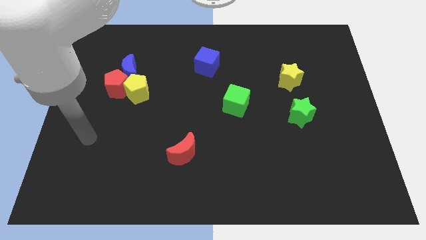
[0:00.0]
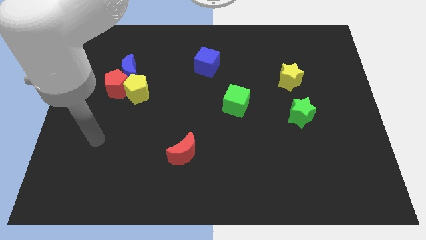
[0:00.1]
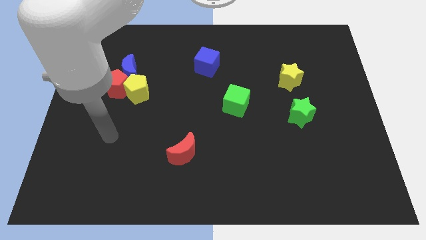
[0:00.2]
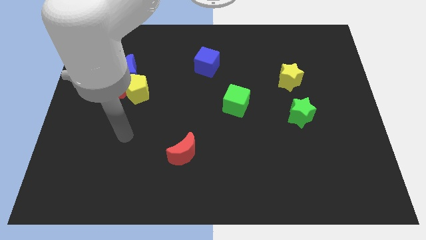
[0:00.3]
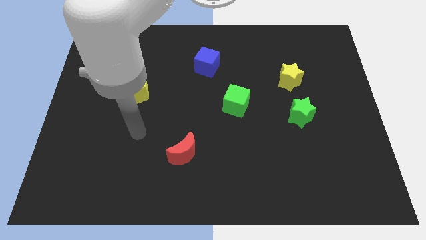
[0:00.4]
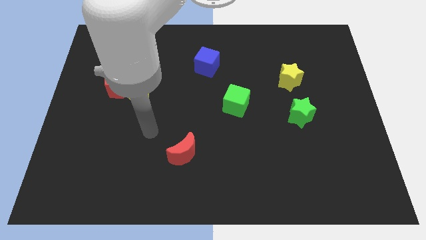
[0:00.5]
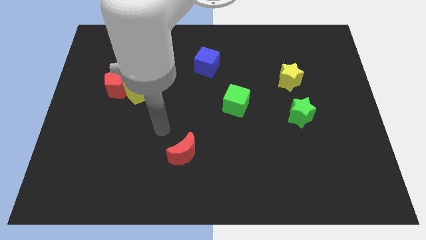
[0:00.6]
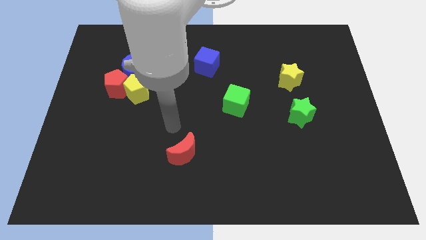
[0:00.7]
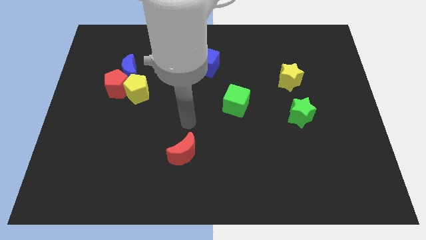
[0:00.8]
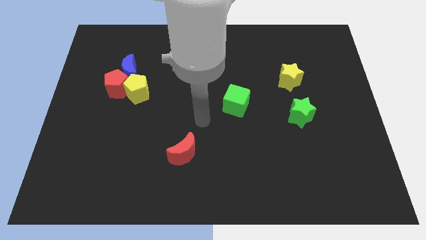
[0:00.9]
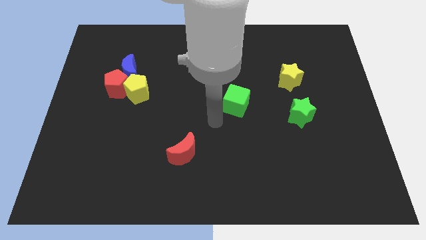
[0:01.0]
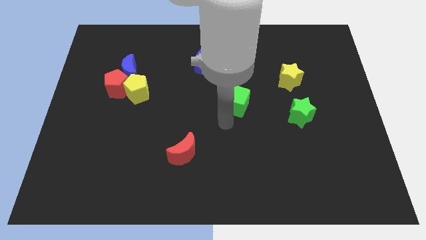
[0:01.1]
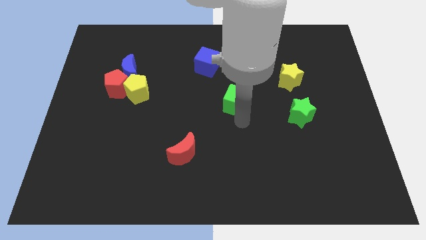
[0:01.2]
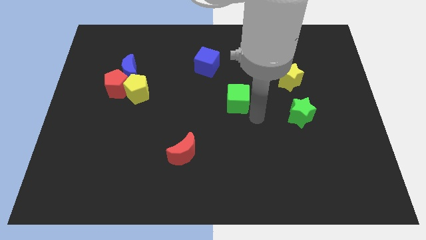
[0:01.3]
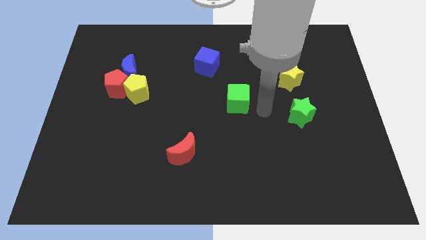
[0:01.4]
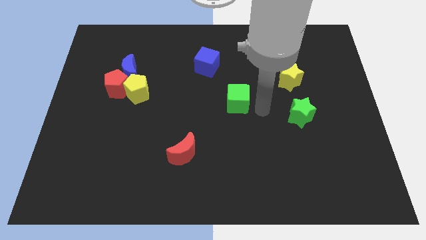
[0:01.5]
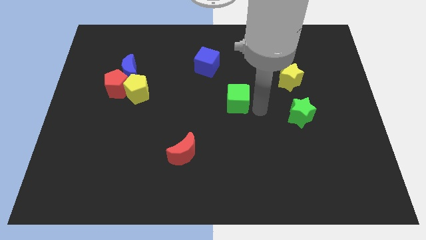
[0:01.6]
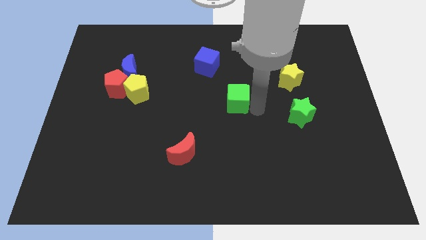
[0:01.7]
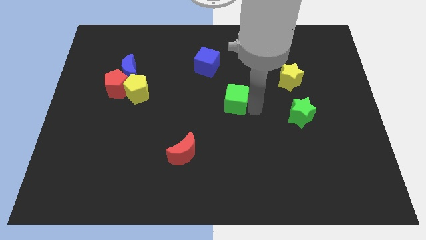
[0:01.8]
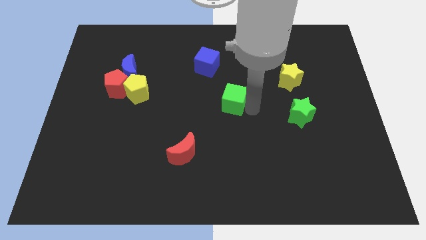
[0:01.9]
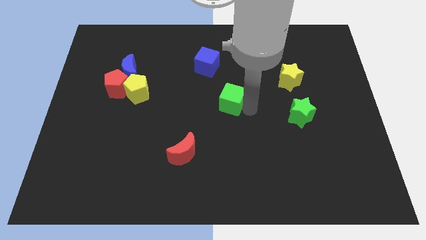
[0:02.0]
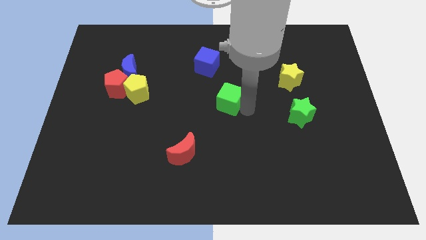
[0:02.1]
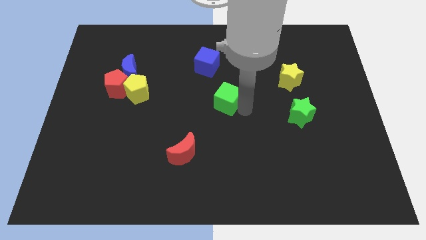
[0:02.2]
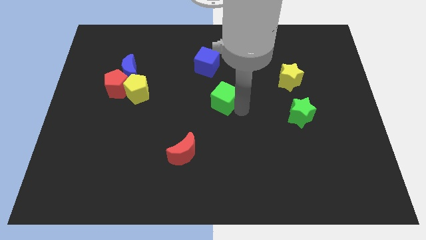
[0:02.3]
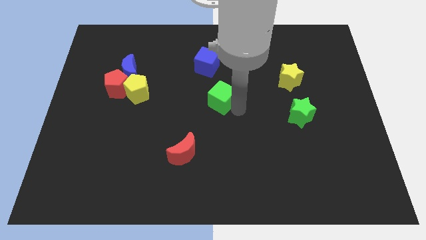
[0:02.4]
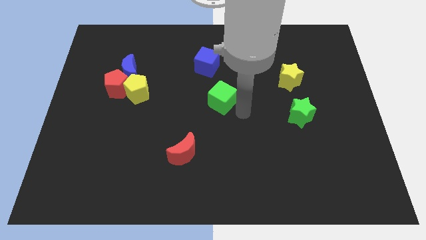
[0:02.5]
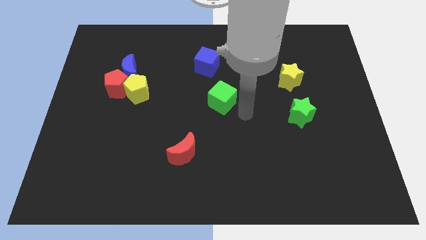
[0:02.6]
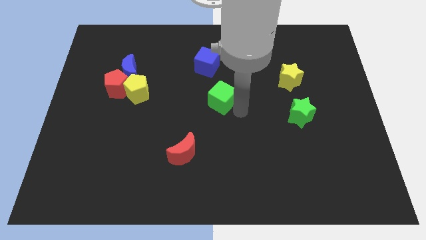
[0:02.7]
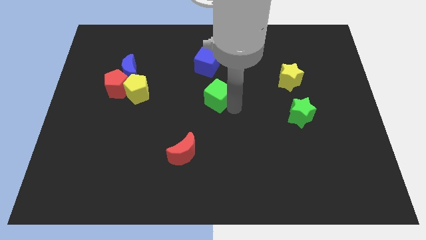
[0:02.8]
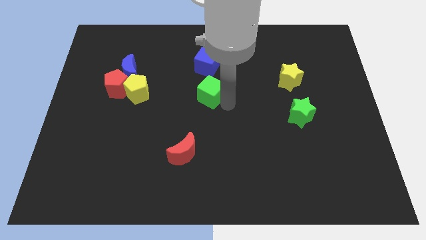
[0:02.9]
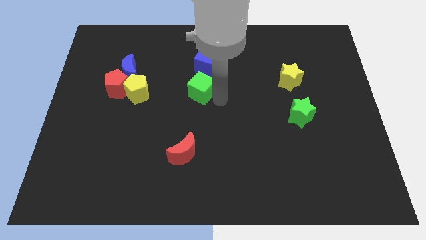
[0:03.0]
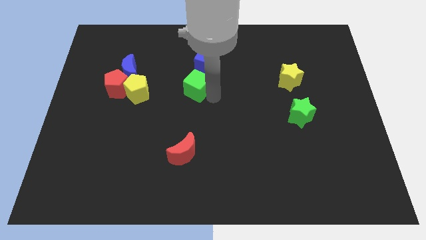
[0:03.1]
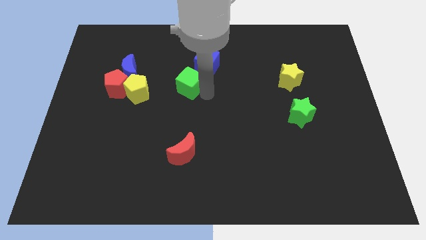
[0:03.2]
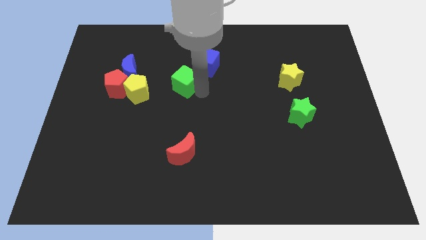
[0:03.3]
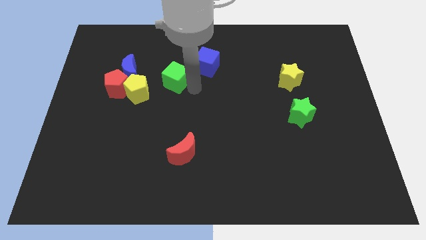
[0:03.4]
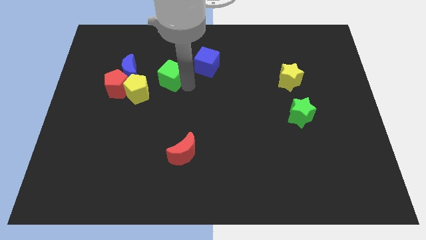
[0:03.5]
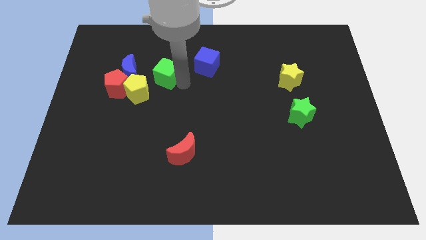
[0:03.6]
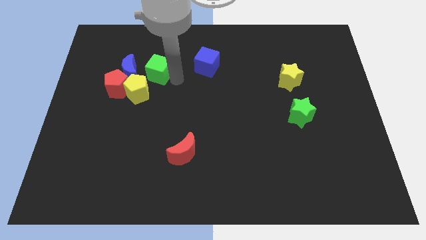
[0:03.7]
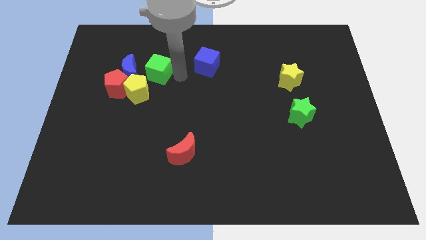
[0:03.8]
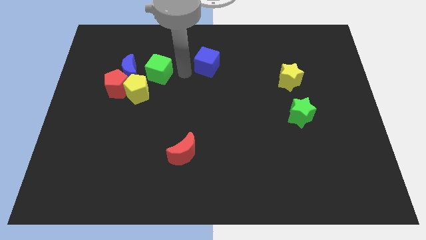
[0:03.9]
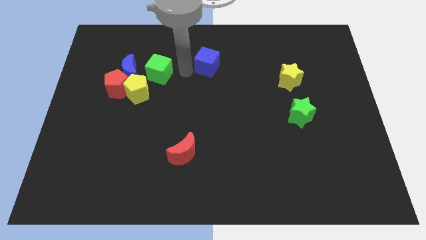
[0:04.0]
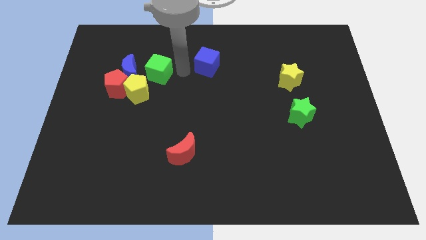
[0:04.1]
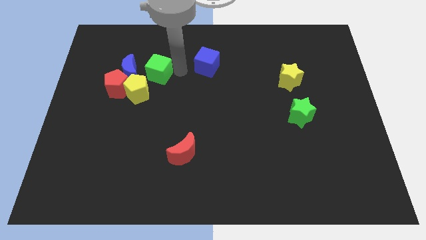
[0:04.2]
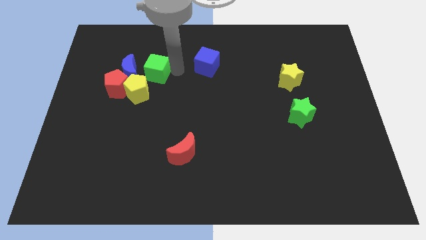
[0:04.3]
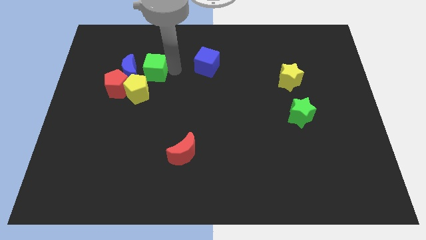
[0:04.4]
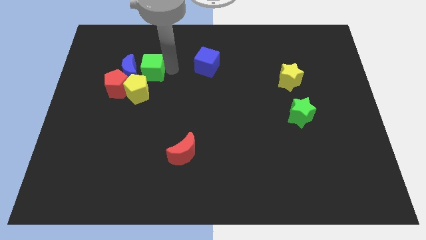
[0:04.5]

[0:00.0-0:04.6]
put the green cube to the blue moon

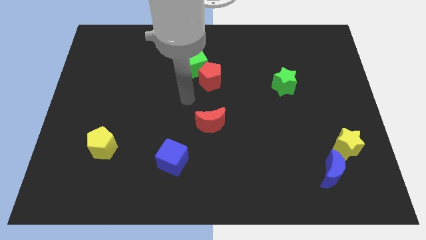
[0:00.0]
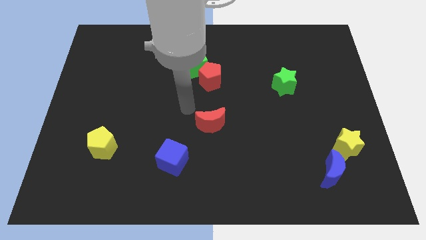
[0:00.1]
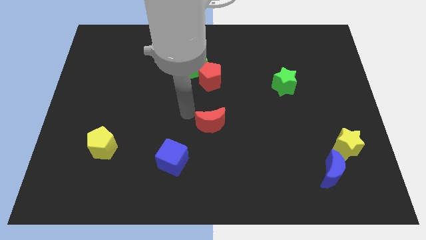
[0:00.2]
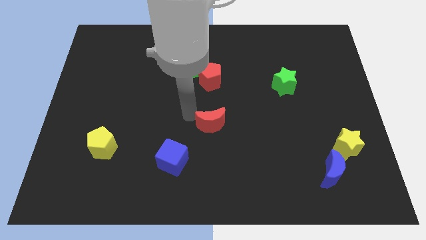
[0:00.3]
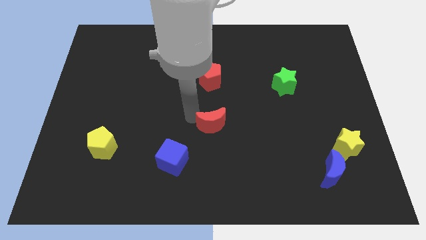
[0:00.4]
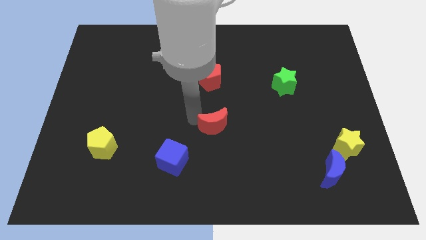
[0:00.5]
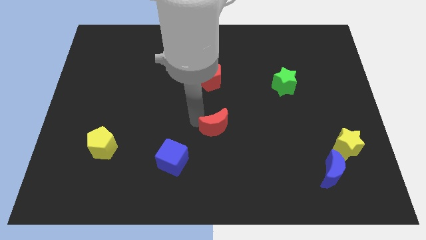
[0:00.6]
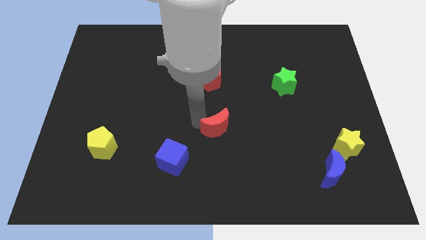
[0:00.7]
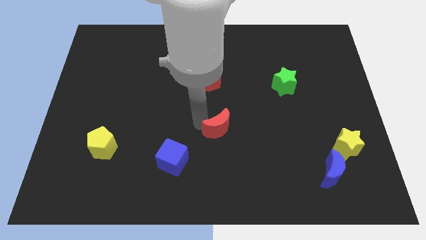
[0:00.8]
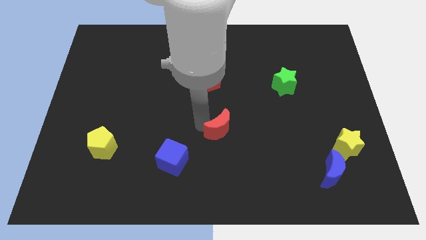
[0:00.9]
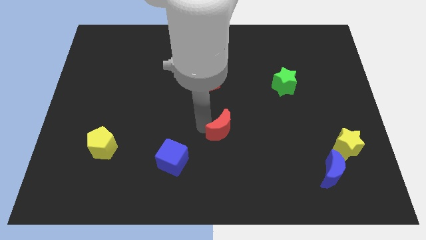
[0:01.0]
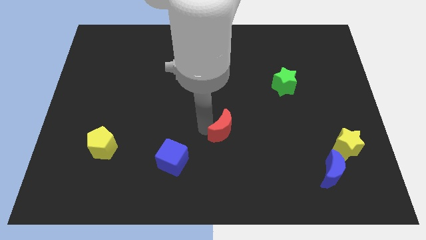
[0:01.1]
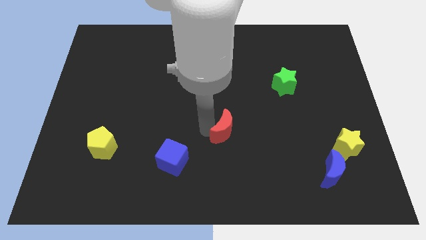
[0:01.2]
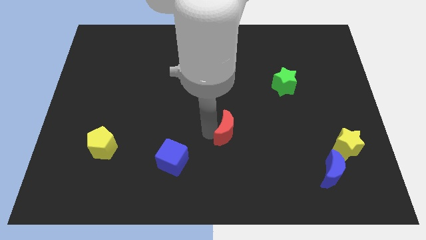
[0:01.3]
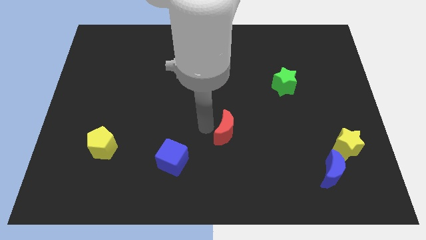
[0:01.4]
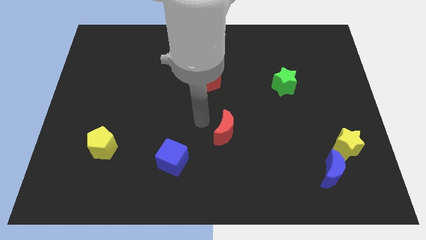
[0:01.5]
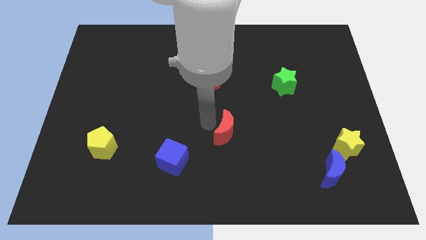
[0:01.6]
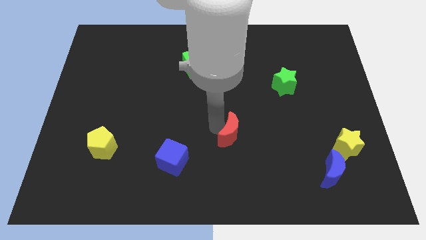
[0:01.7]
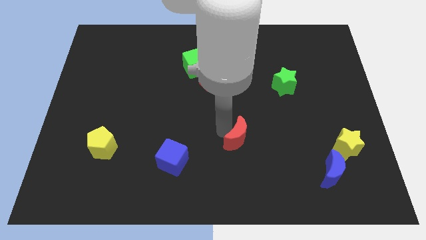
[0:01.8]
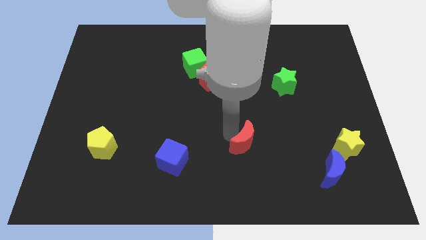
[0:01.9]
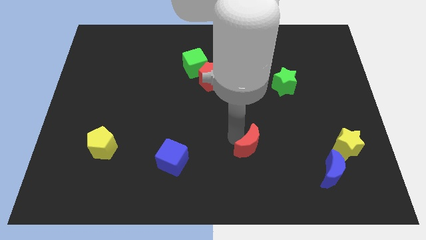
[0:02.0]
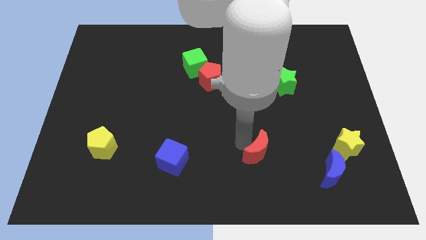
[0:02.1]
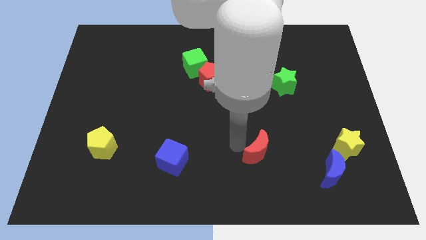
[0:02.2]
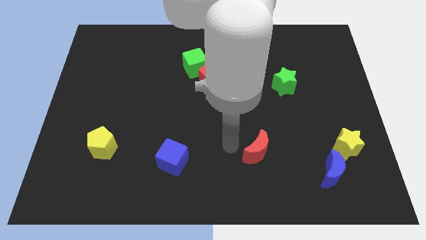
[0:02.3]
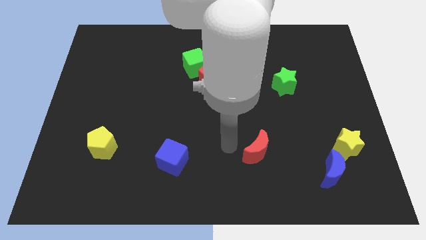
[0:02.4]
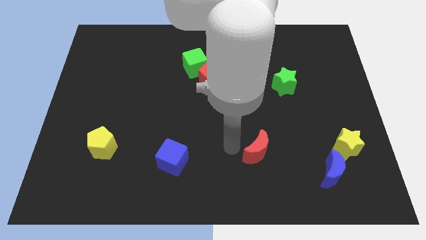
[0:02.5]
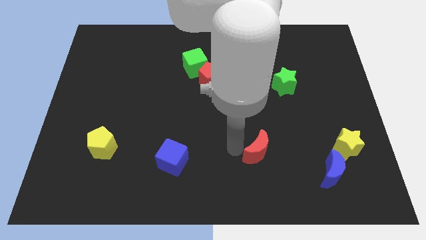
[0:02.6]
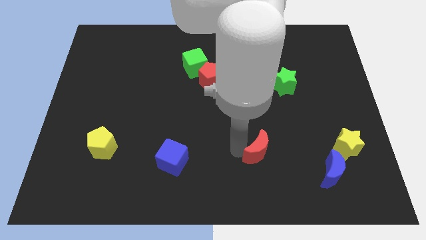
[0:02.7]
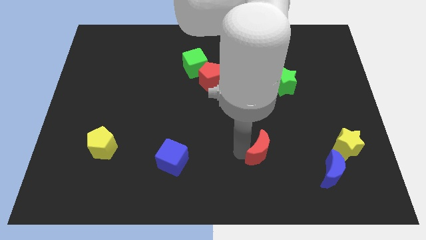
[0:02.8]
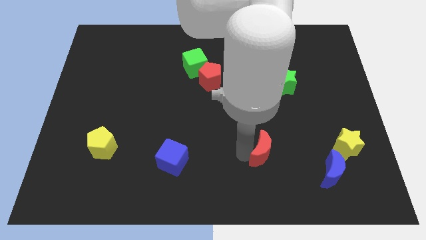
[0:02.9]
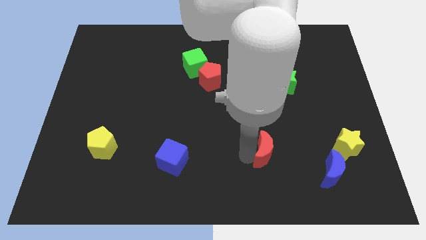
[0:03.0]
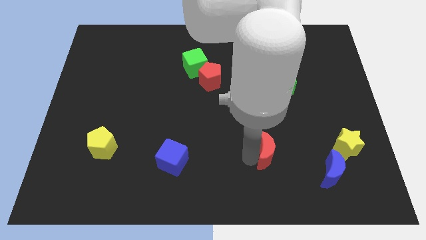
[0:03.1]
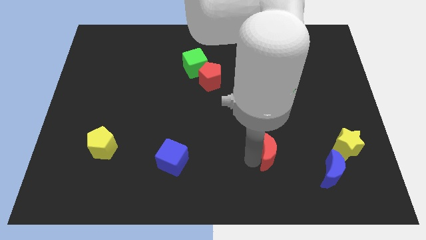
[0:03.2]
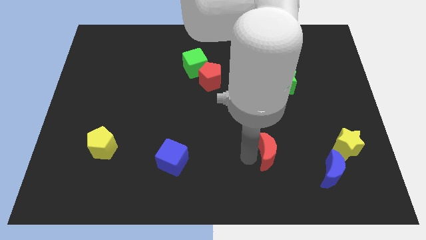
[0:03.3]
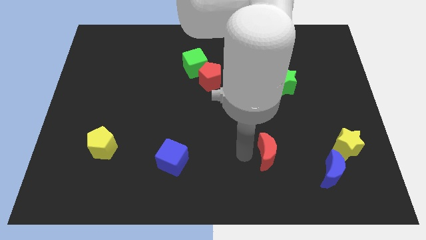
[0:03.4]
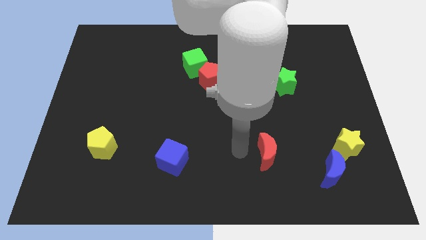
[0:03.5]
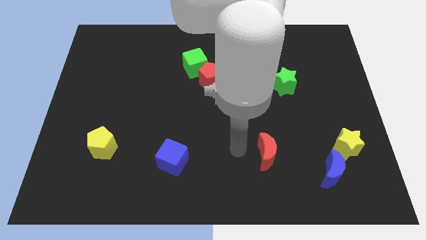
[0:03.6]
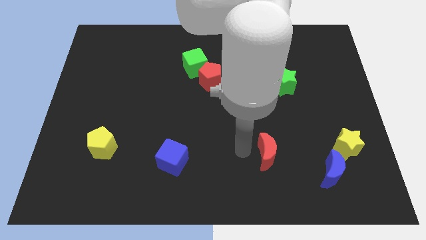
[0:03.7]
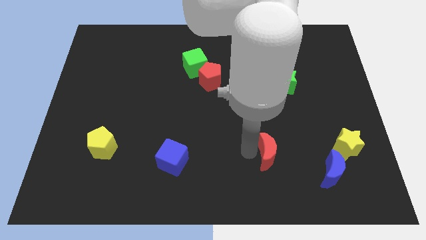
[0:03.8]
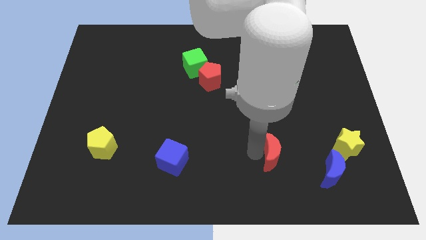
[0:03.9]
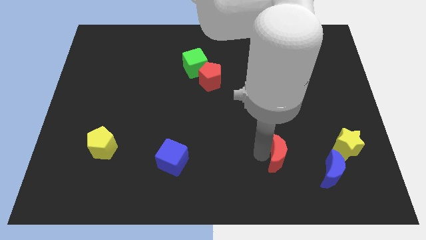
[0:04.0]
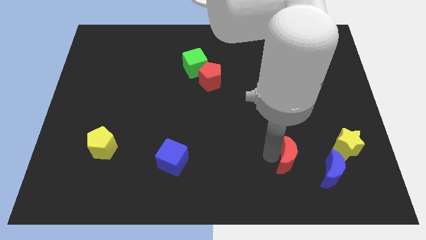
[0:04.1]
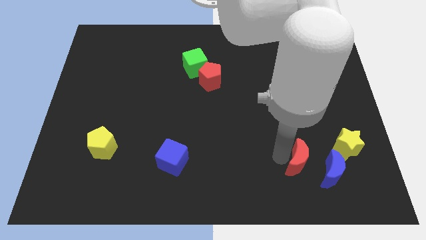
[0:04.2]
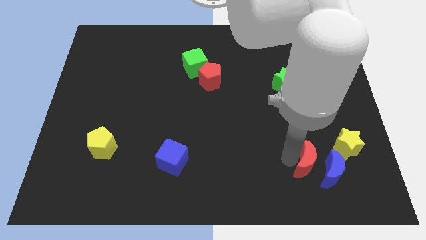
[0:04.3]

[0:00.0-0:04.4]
slide the red moon close to the blue moon
